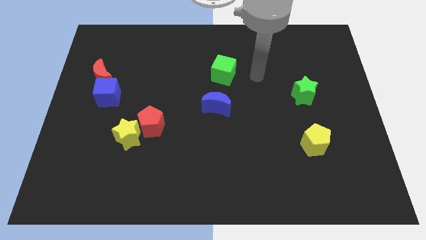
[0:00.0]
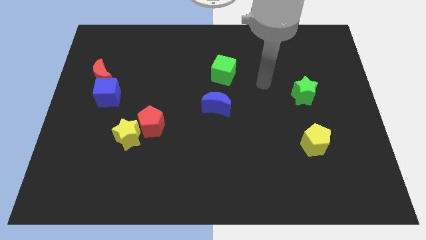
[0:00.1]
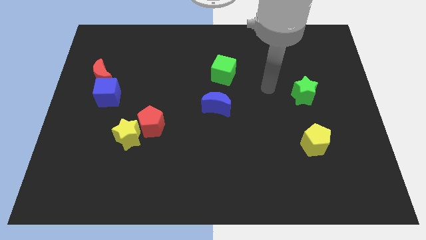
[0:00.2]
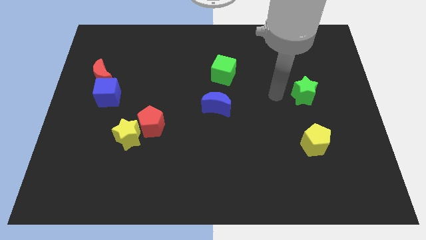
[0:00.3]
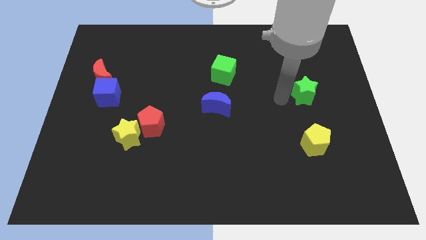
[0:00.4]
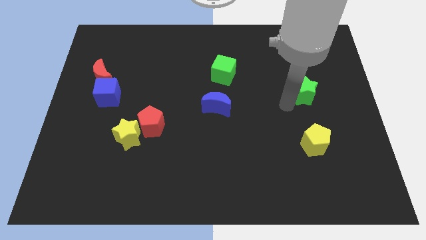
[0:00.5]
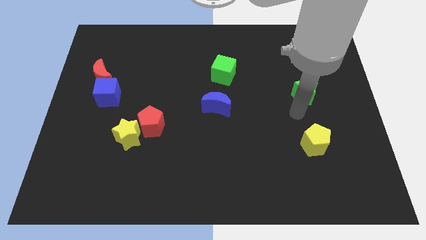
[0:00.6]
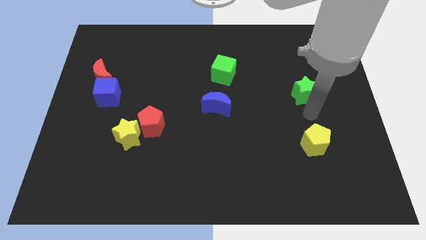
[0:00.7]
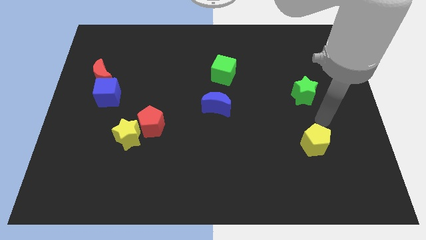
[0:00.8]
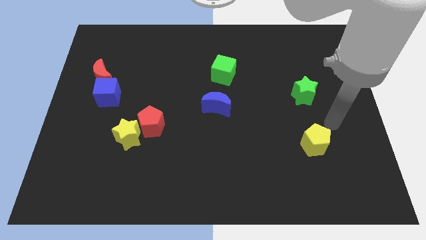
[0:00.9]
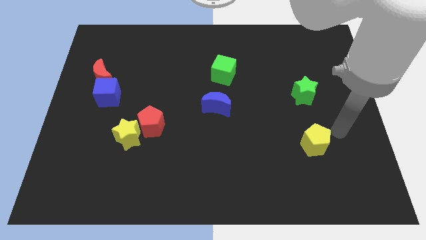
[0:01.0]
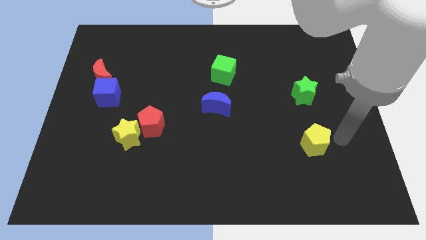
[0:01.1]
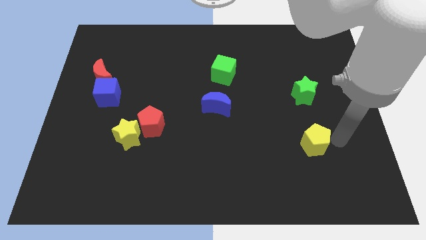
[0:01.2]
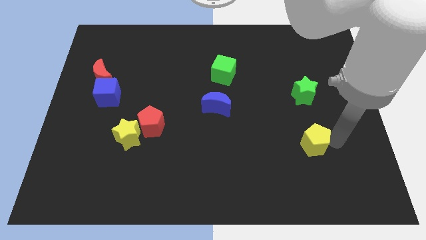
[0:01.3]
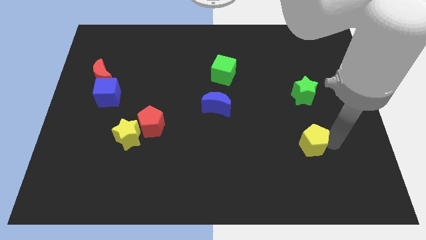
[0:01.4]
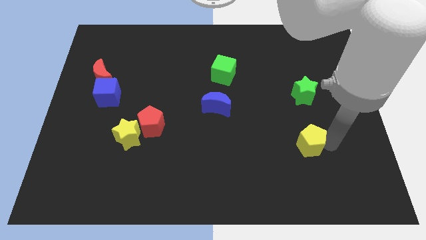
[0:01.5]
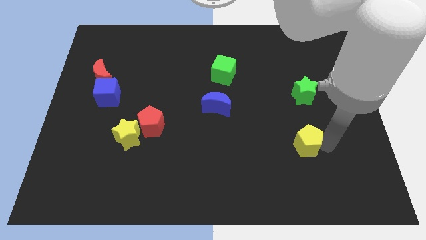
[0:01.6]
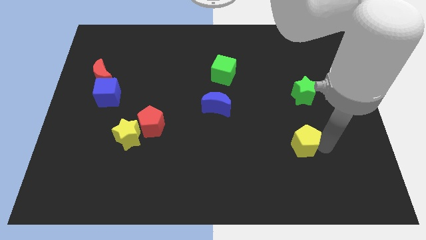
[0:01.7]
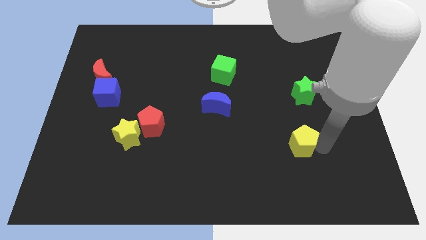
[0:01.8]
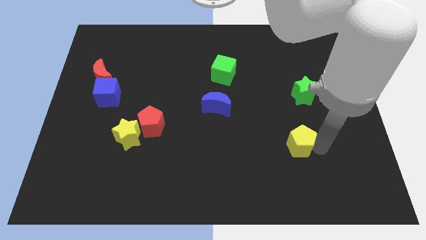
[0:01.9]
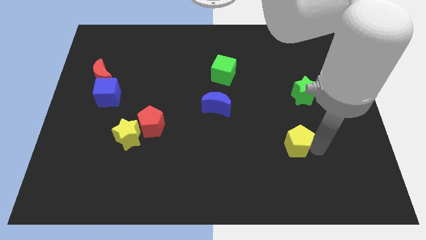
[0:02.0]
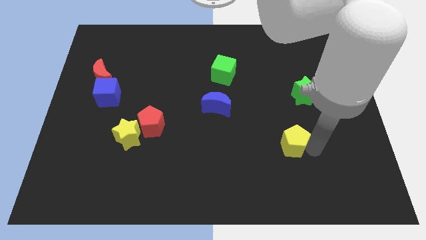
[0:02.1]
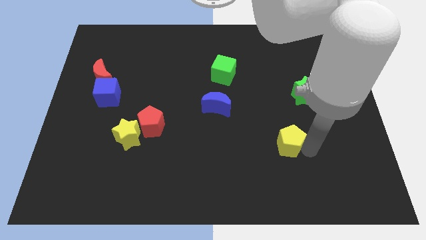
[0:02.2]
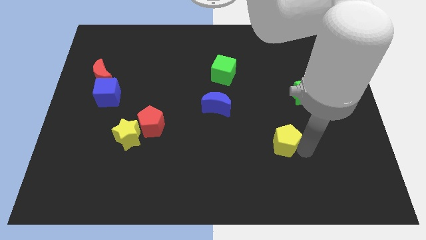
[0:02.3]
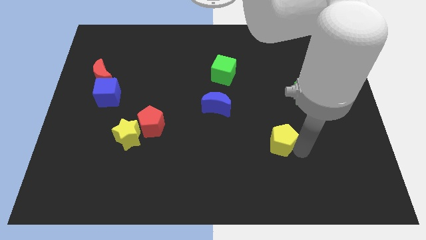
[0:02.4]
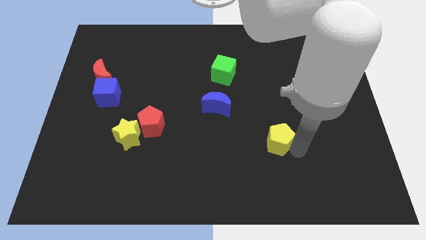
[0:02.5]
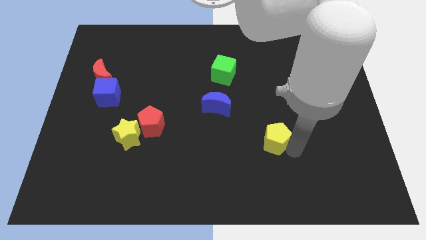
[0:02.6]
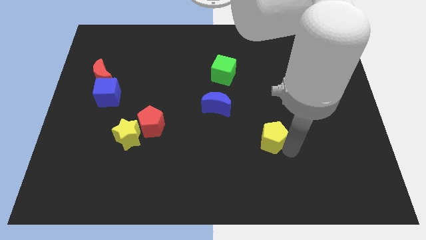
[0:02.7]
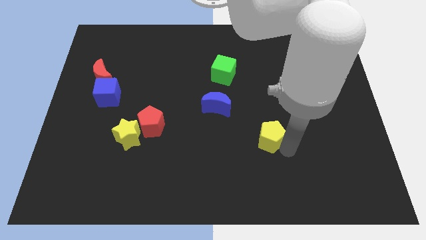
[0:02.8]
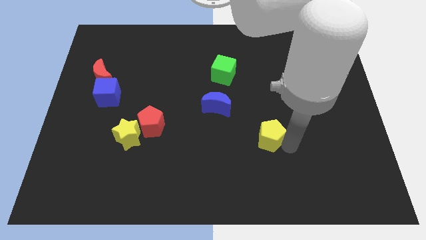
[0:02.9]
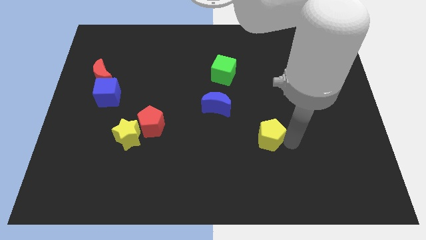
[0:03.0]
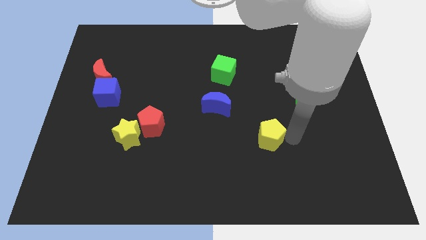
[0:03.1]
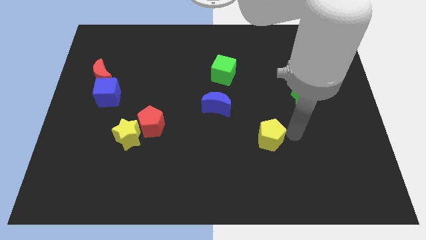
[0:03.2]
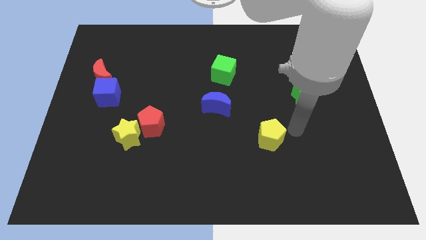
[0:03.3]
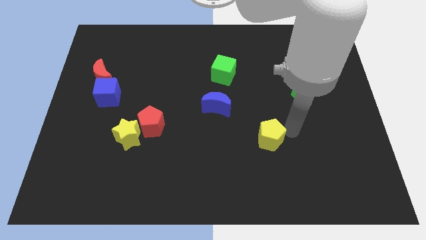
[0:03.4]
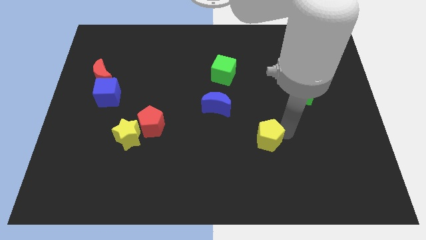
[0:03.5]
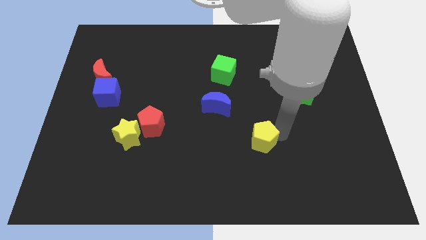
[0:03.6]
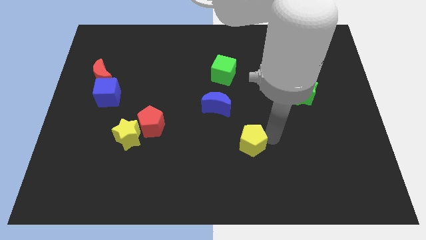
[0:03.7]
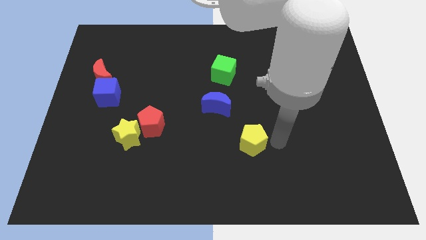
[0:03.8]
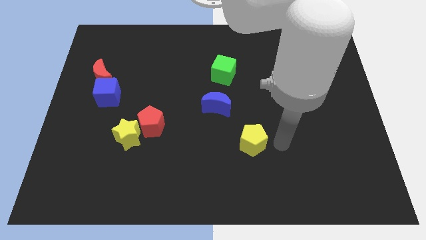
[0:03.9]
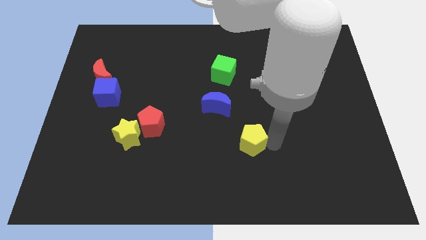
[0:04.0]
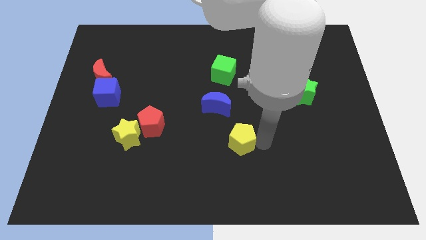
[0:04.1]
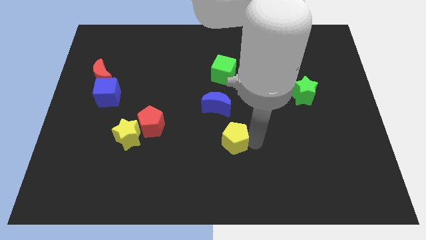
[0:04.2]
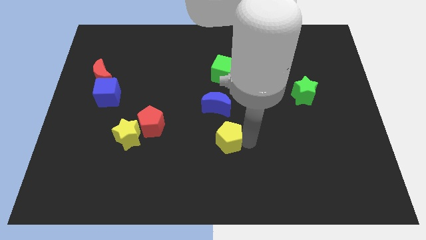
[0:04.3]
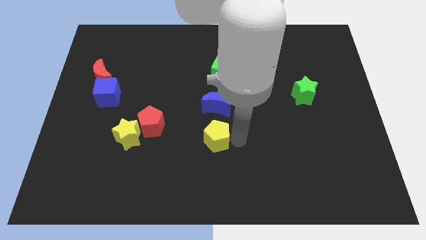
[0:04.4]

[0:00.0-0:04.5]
move the yellow pentagon to the left

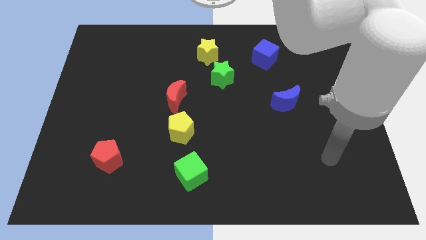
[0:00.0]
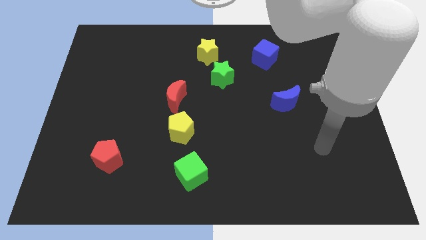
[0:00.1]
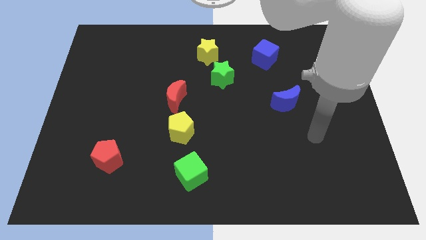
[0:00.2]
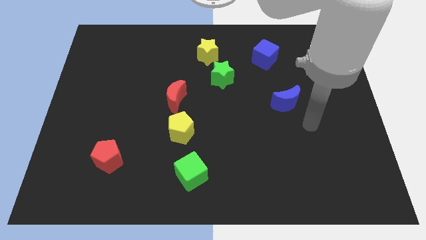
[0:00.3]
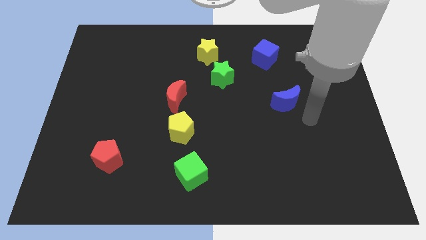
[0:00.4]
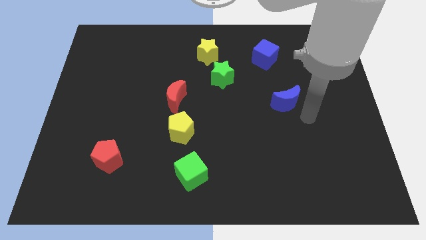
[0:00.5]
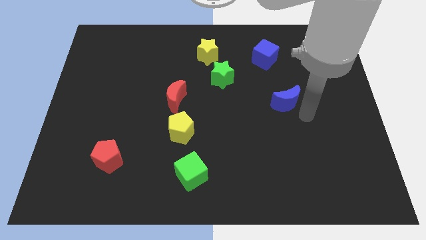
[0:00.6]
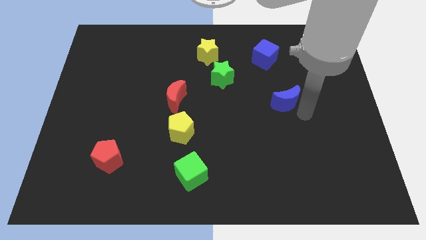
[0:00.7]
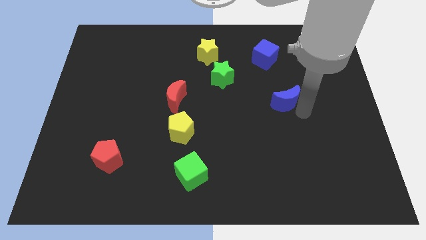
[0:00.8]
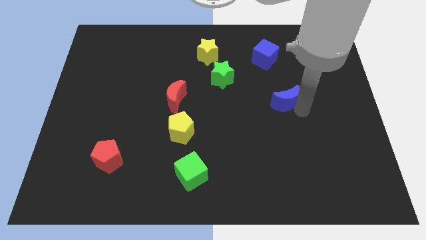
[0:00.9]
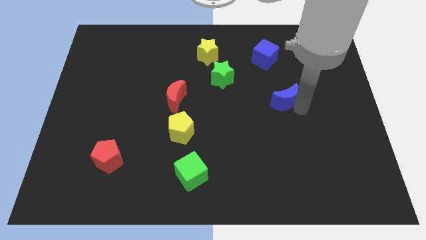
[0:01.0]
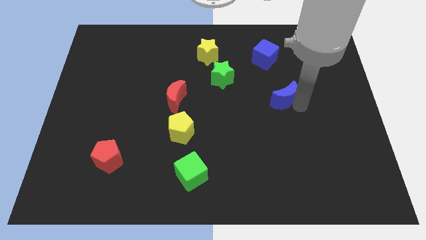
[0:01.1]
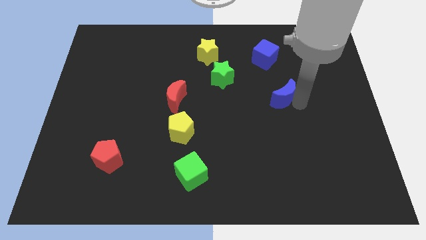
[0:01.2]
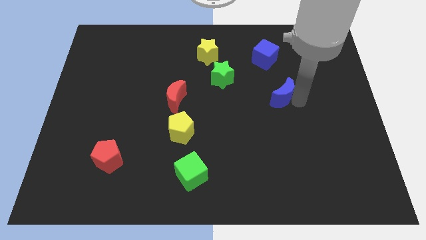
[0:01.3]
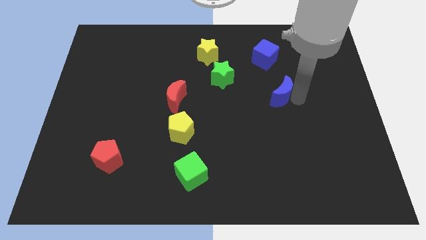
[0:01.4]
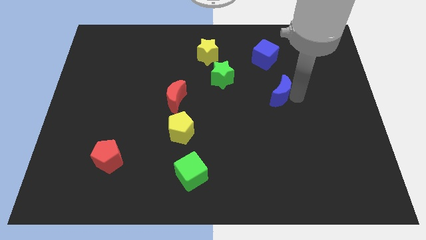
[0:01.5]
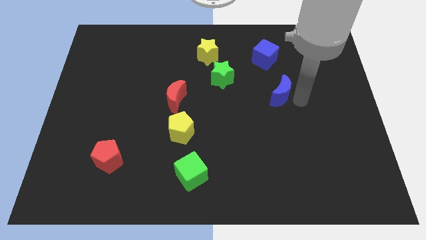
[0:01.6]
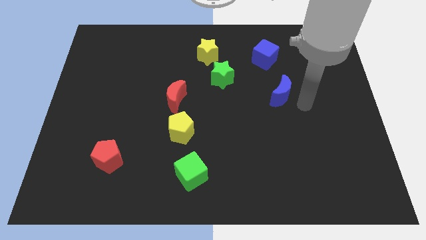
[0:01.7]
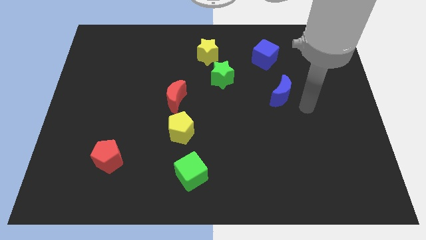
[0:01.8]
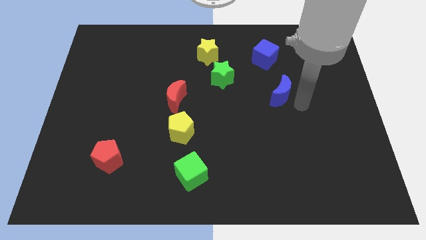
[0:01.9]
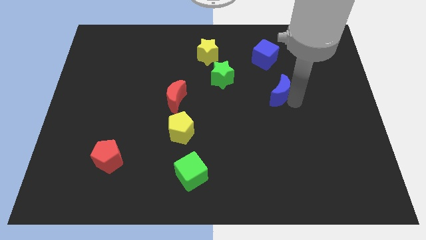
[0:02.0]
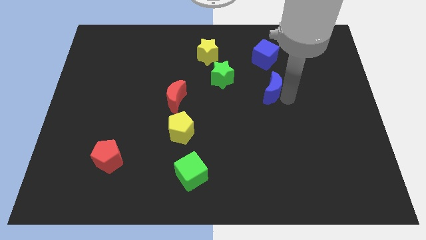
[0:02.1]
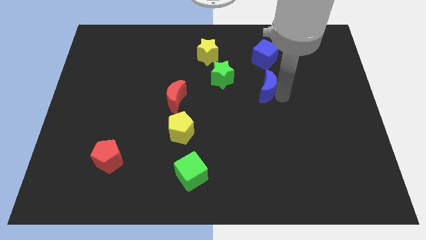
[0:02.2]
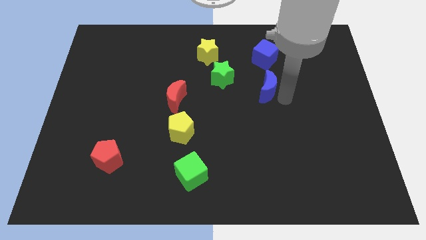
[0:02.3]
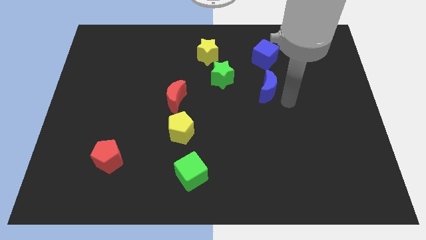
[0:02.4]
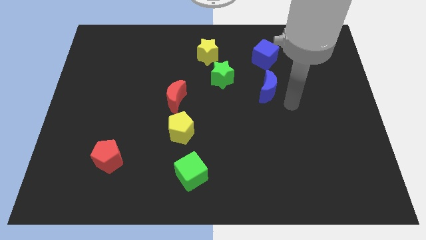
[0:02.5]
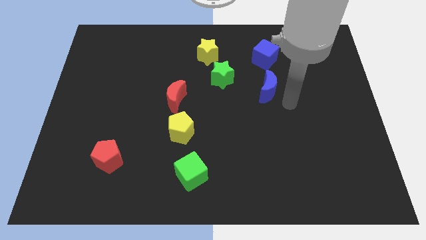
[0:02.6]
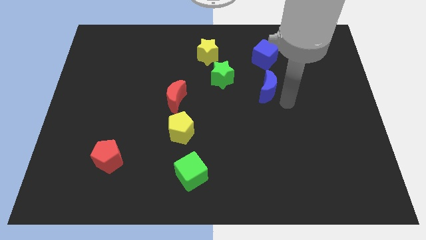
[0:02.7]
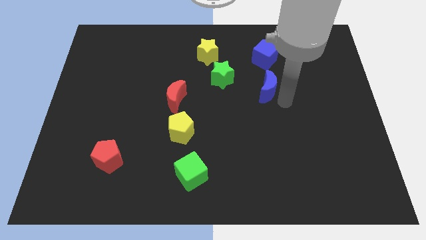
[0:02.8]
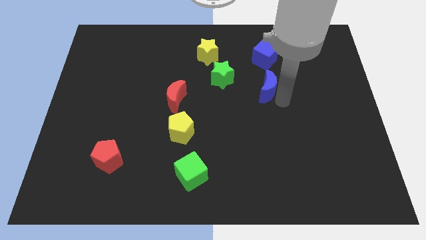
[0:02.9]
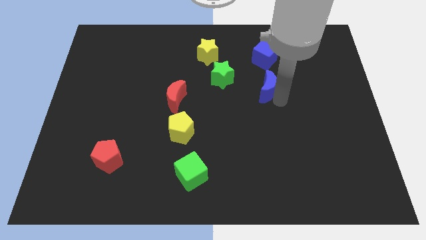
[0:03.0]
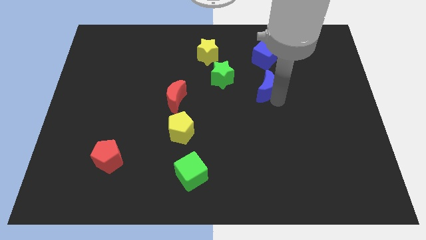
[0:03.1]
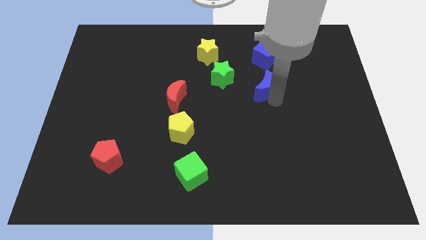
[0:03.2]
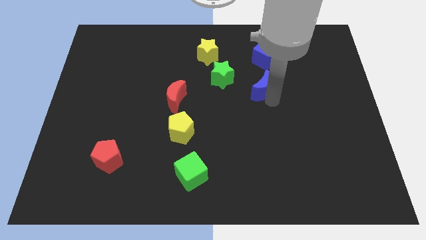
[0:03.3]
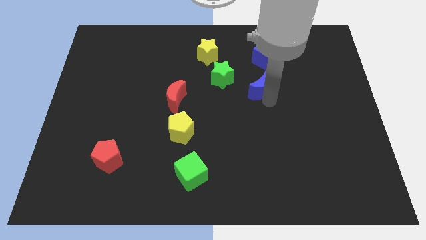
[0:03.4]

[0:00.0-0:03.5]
slightly push the blue moon diagonally upwards and left
